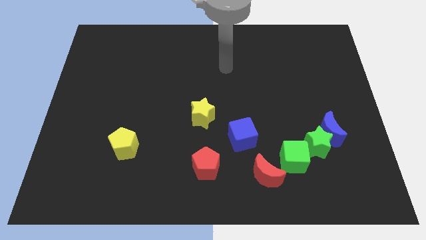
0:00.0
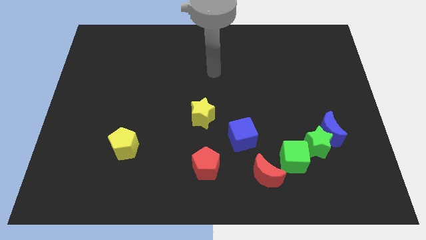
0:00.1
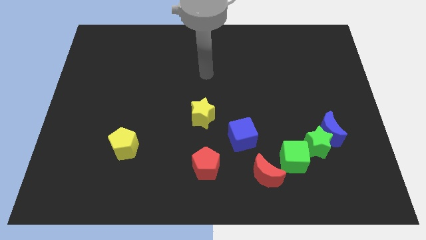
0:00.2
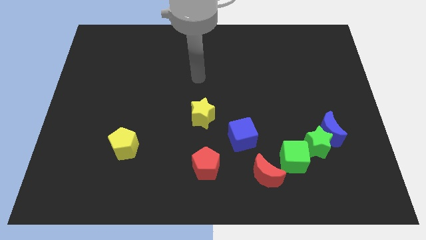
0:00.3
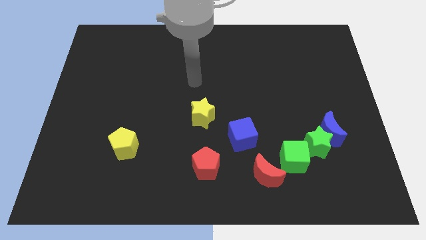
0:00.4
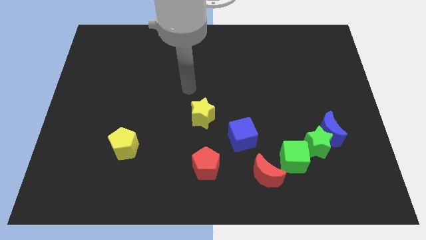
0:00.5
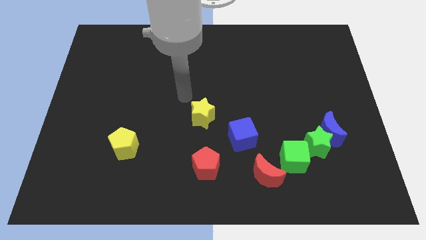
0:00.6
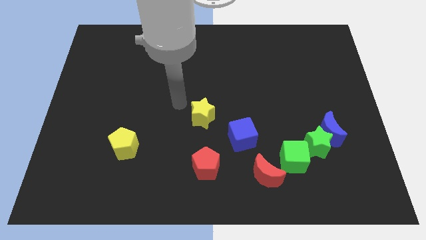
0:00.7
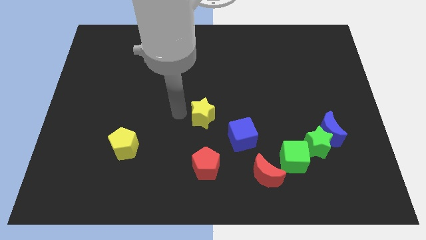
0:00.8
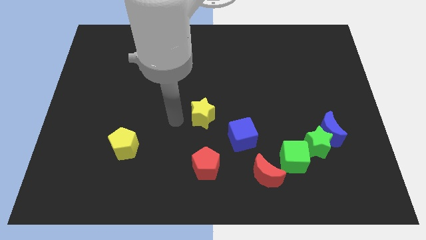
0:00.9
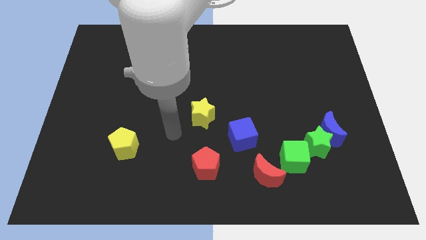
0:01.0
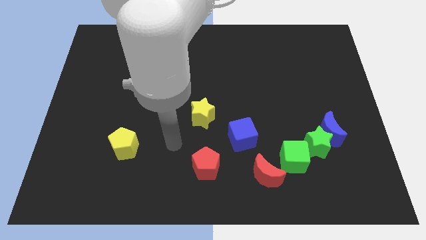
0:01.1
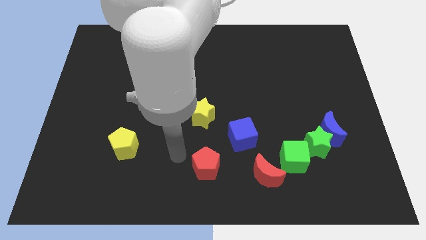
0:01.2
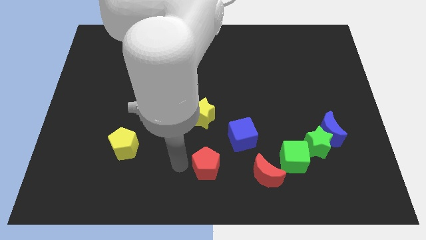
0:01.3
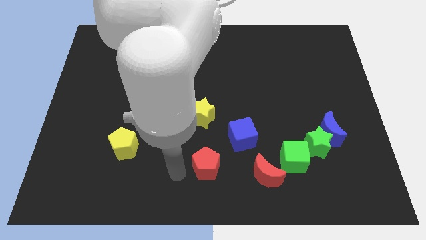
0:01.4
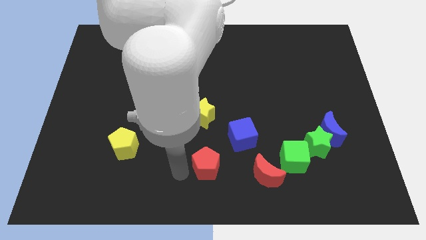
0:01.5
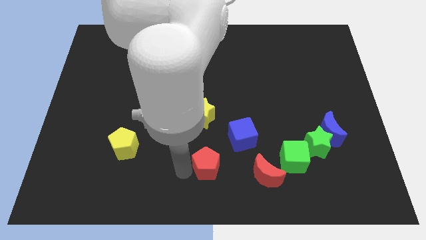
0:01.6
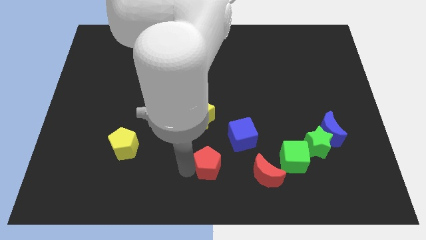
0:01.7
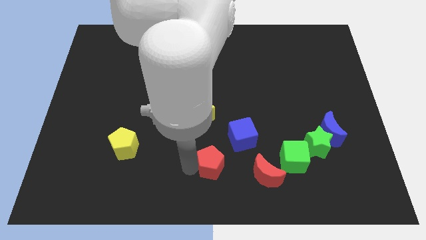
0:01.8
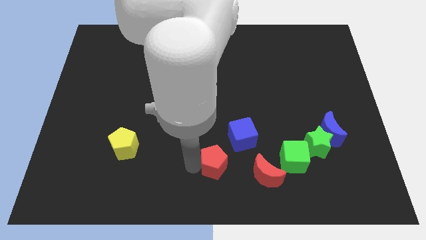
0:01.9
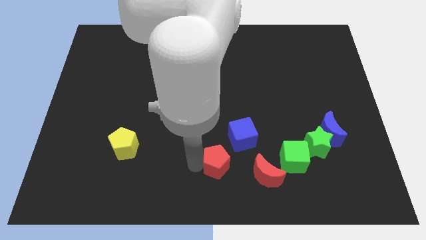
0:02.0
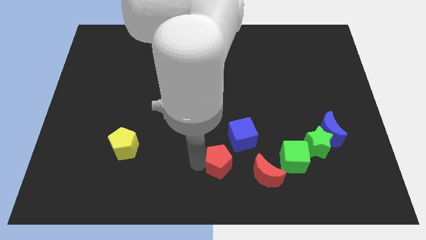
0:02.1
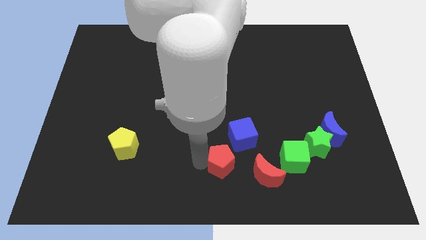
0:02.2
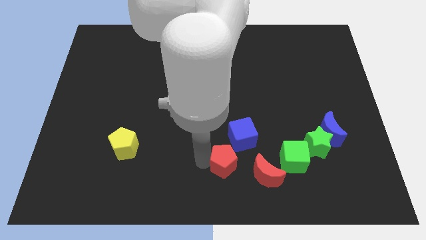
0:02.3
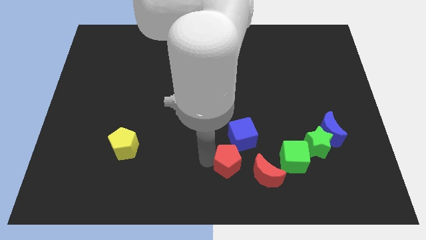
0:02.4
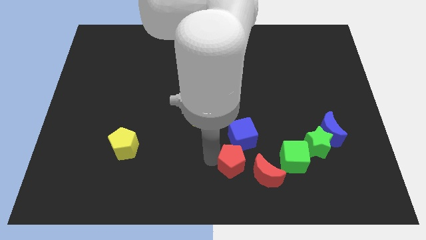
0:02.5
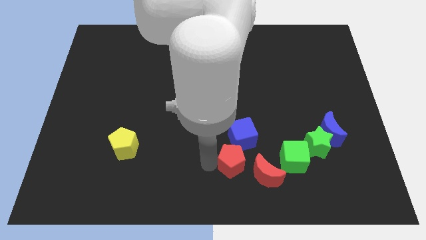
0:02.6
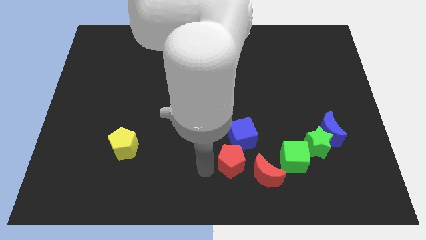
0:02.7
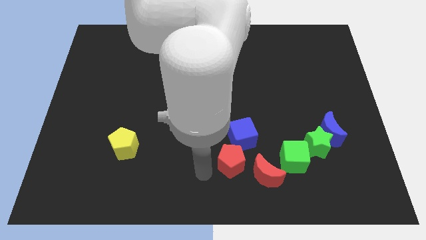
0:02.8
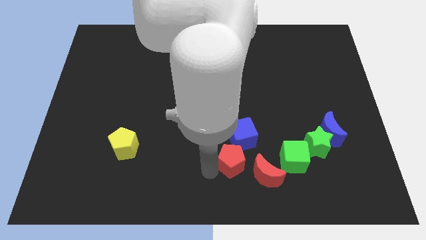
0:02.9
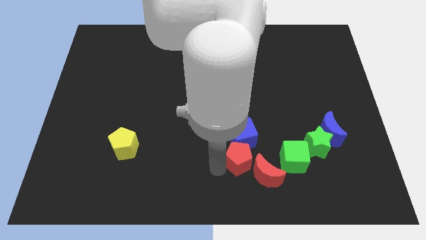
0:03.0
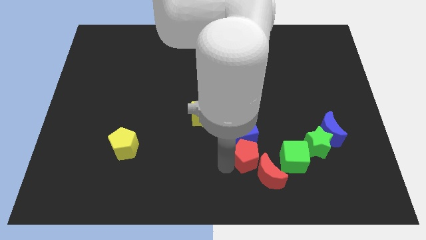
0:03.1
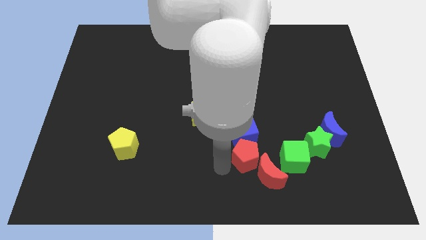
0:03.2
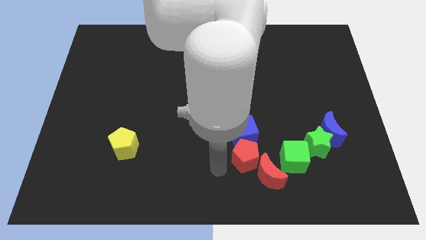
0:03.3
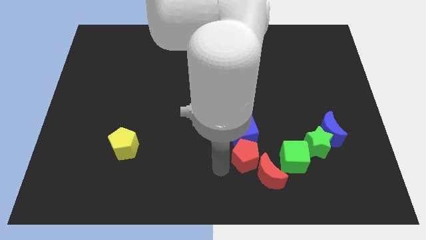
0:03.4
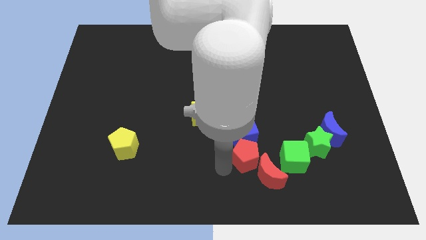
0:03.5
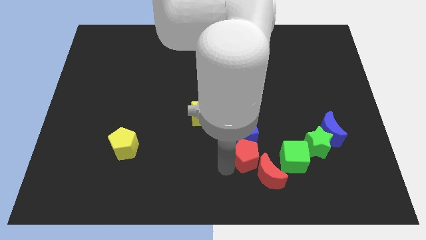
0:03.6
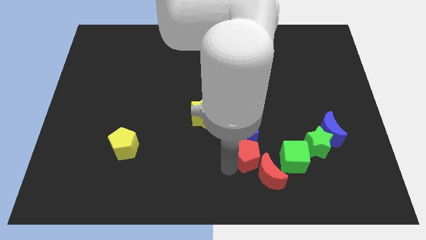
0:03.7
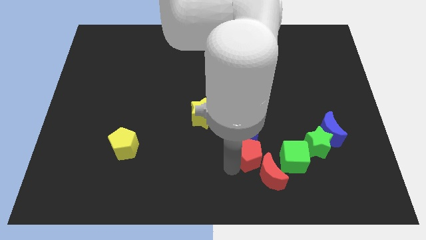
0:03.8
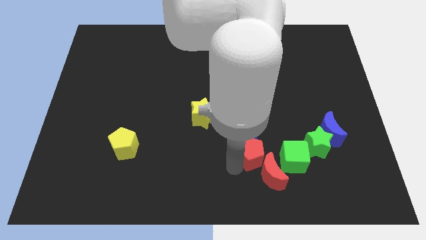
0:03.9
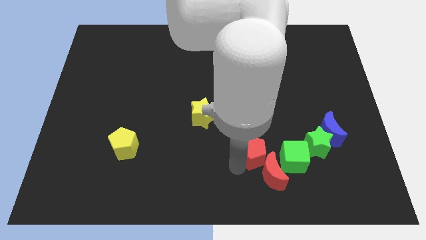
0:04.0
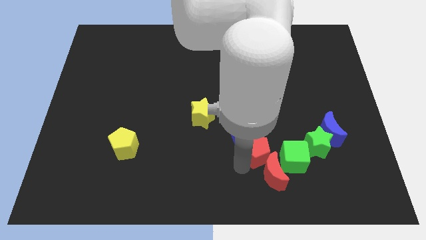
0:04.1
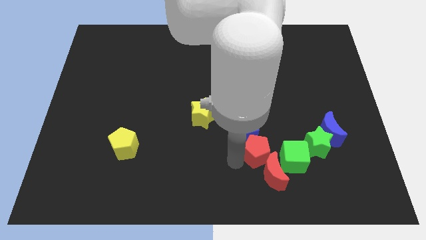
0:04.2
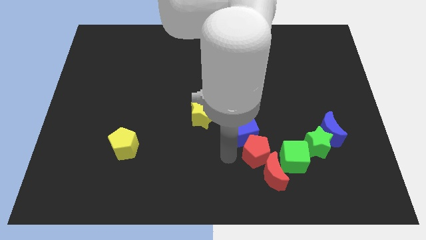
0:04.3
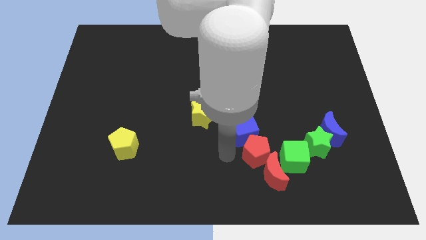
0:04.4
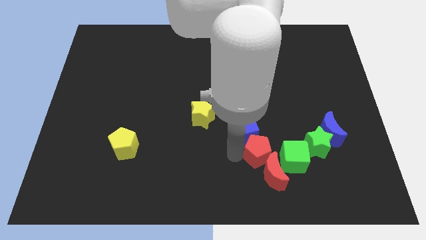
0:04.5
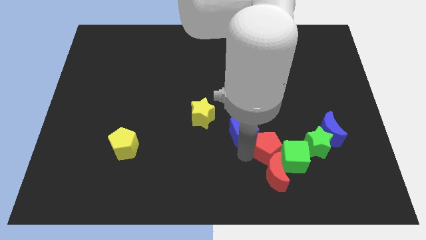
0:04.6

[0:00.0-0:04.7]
push the red pentagon to the top right side of the red moon

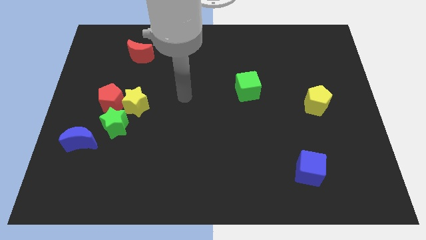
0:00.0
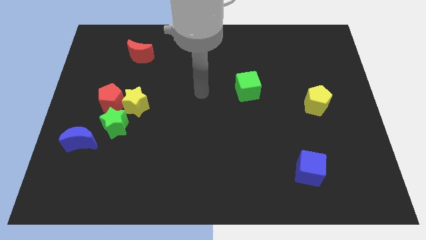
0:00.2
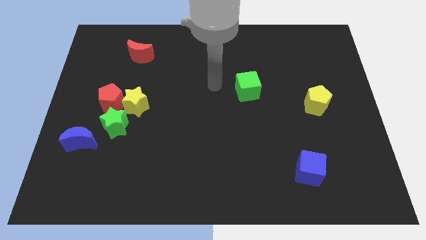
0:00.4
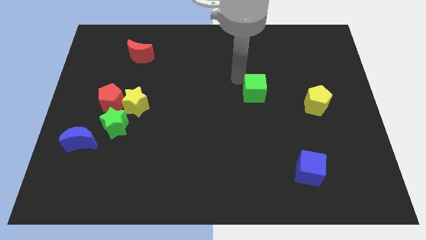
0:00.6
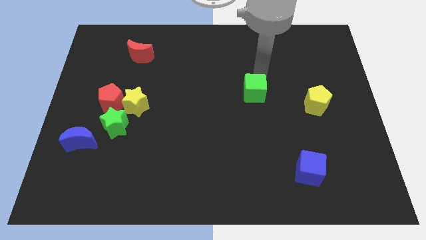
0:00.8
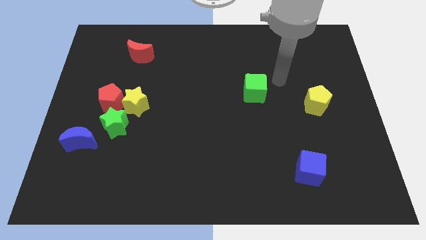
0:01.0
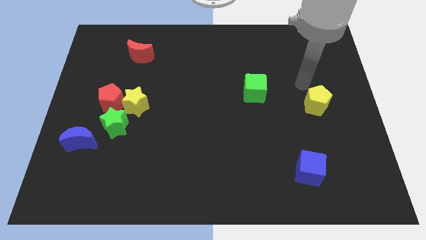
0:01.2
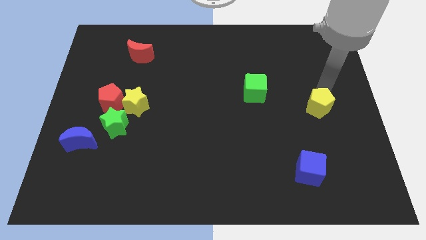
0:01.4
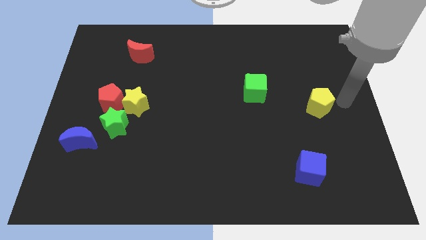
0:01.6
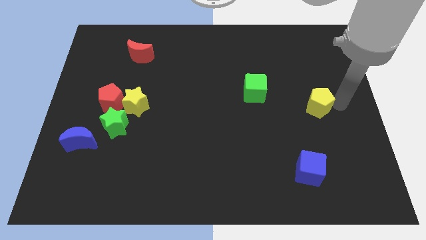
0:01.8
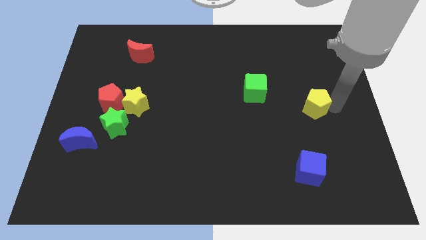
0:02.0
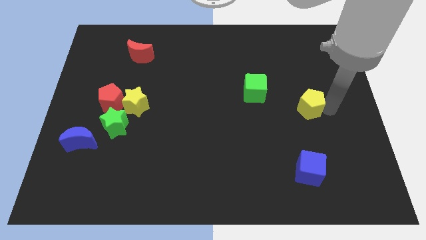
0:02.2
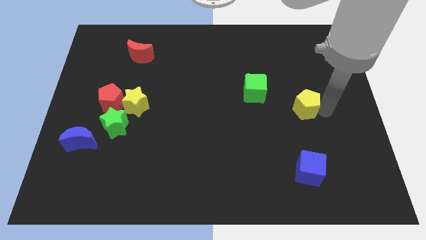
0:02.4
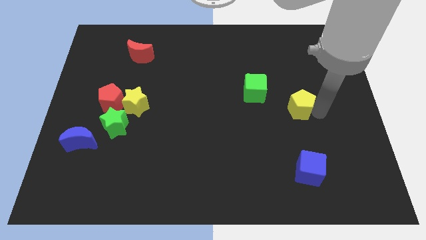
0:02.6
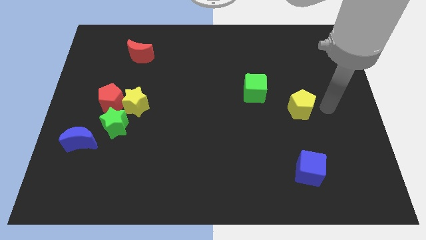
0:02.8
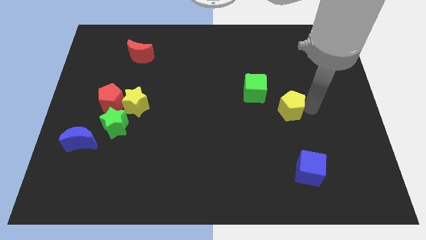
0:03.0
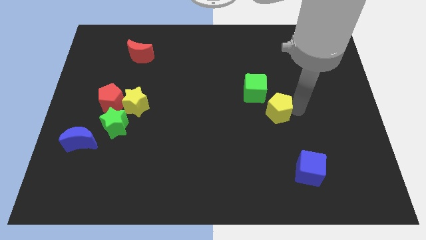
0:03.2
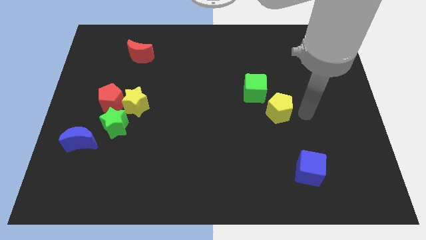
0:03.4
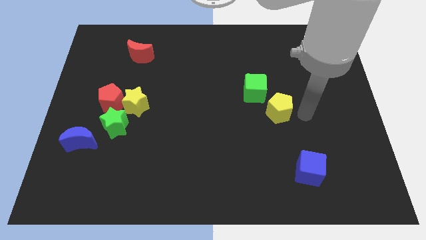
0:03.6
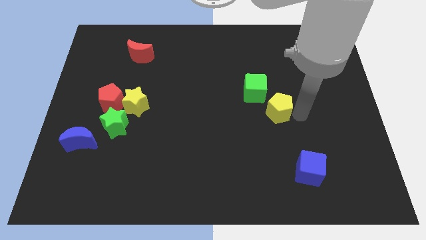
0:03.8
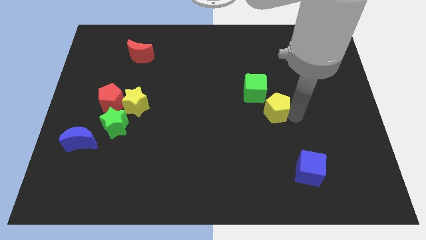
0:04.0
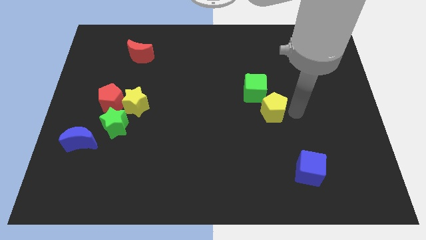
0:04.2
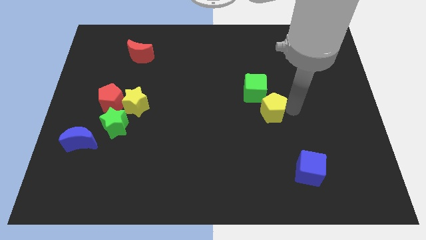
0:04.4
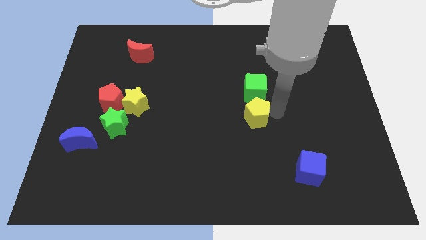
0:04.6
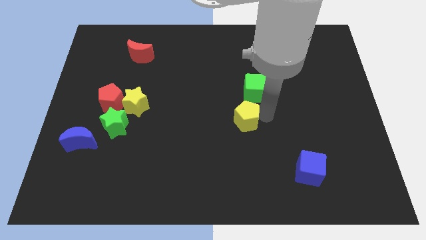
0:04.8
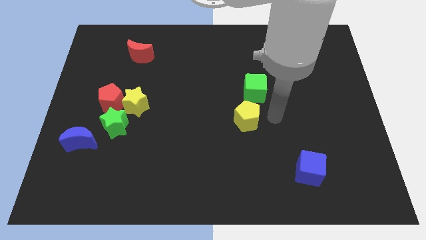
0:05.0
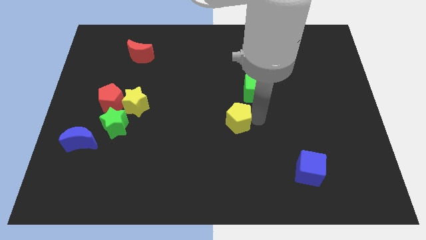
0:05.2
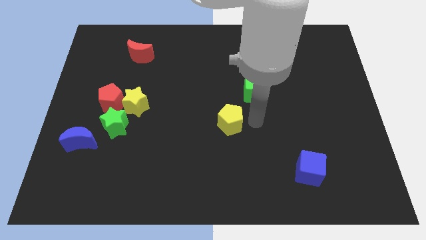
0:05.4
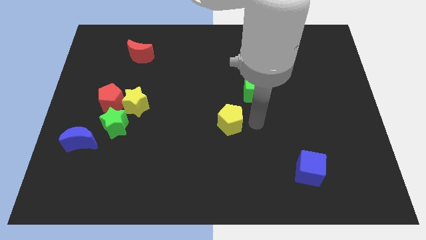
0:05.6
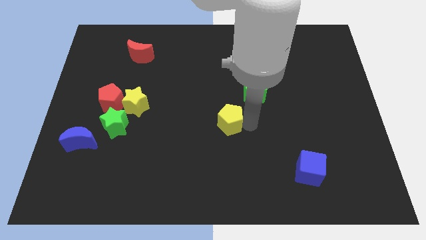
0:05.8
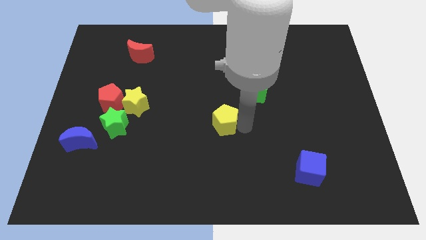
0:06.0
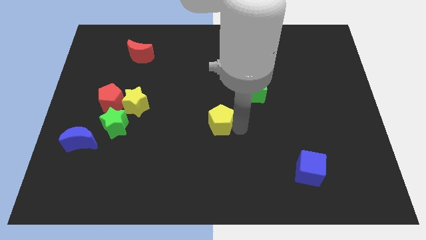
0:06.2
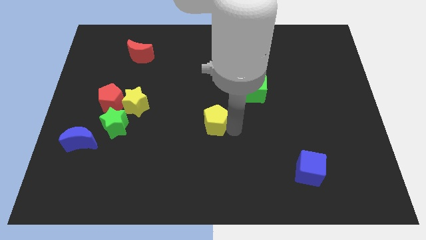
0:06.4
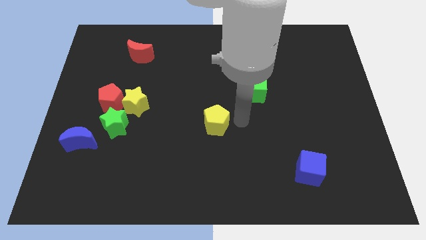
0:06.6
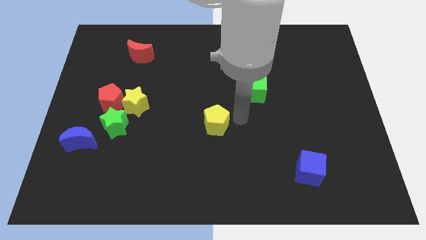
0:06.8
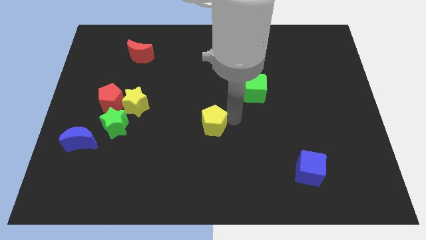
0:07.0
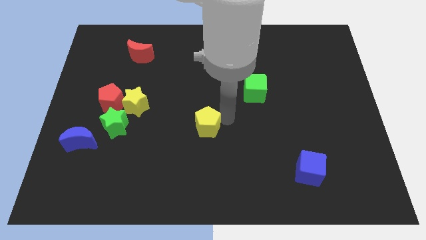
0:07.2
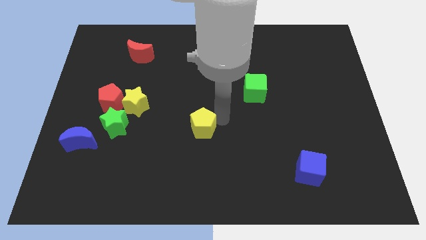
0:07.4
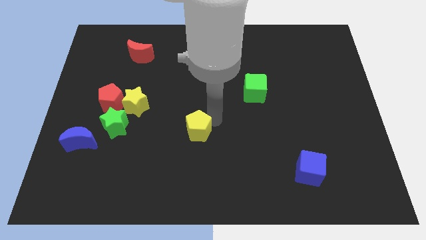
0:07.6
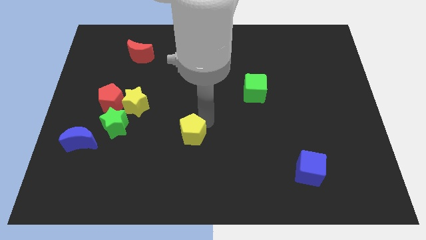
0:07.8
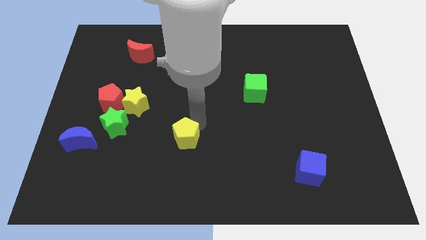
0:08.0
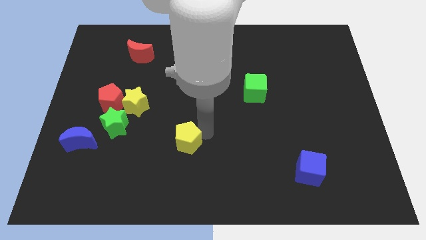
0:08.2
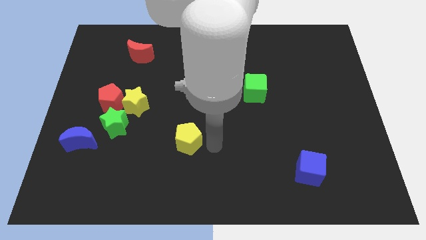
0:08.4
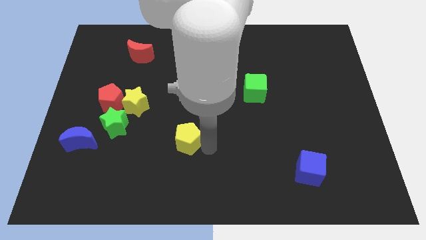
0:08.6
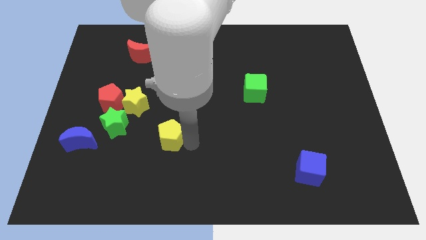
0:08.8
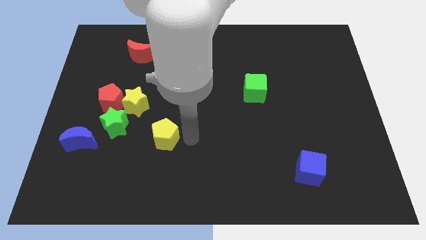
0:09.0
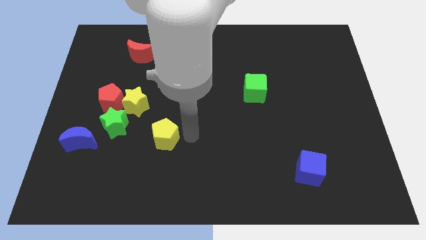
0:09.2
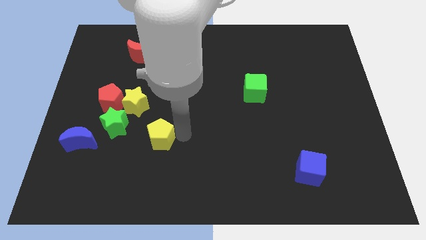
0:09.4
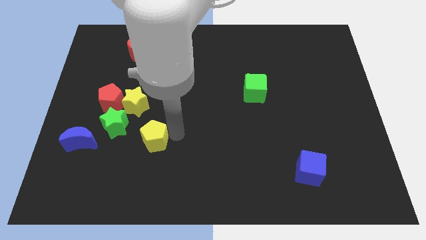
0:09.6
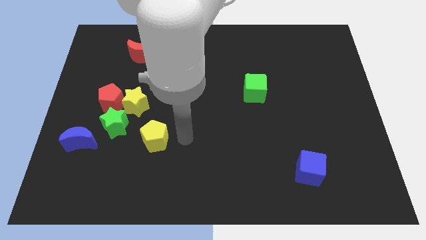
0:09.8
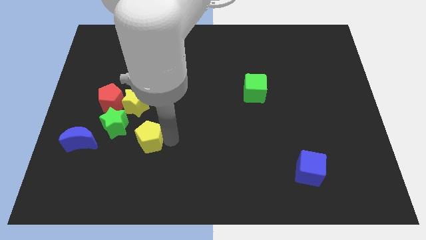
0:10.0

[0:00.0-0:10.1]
put the yellow pentagon to the bottom side of the yellow star
